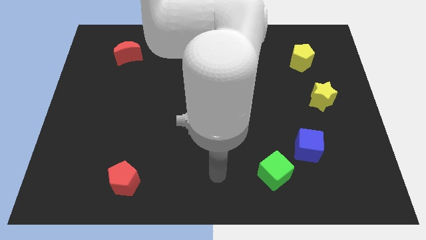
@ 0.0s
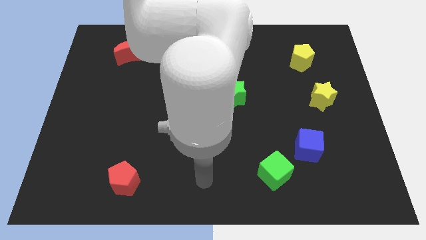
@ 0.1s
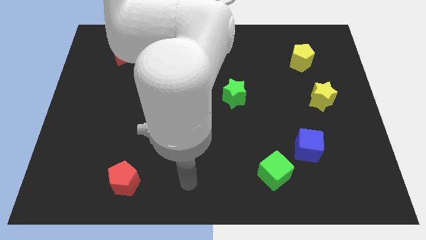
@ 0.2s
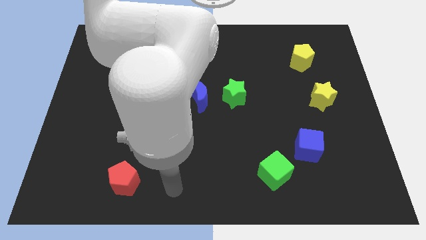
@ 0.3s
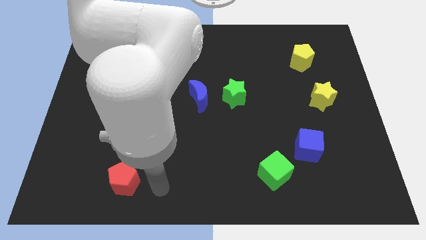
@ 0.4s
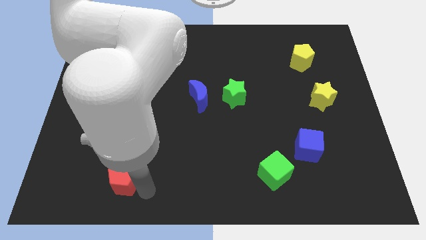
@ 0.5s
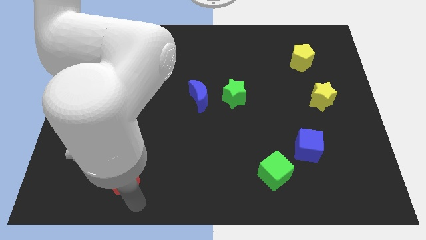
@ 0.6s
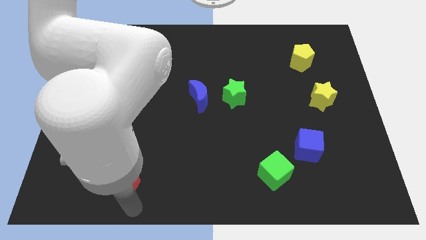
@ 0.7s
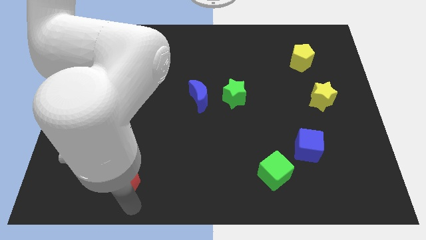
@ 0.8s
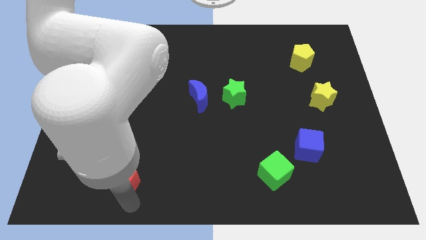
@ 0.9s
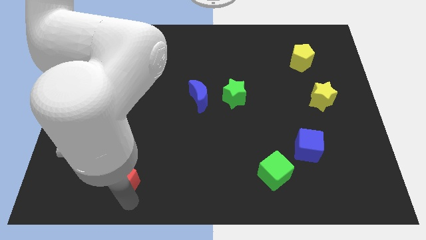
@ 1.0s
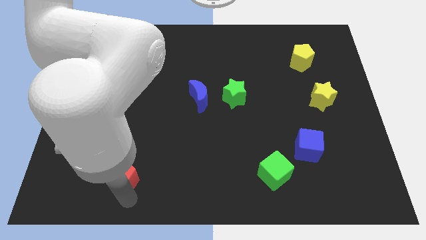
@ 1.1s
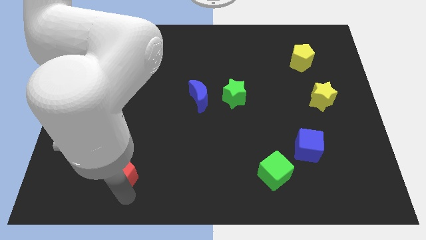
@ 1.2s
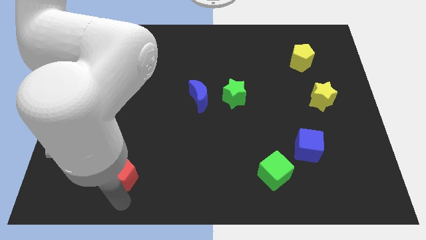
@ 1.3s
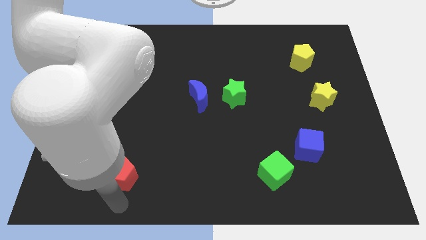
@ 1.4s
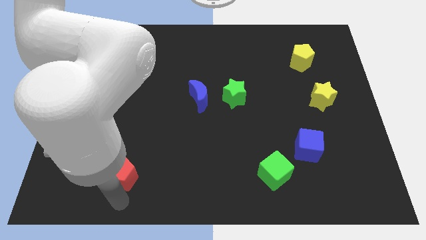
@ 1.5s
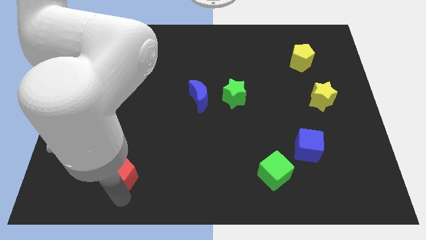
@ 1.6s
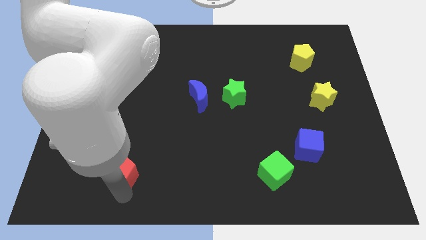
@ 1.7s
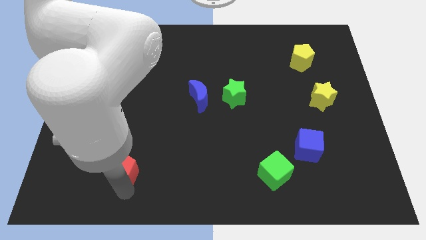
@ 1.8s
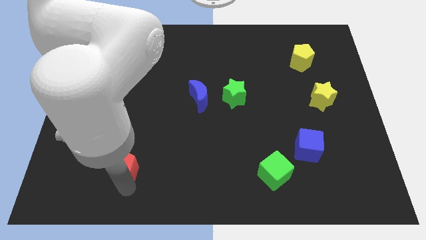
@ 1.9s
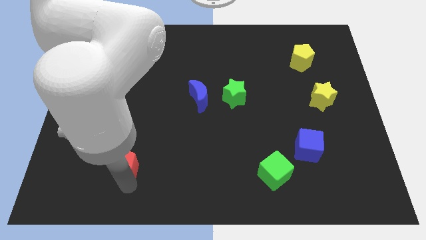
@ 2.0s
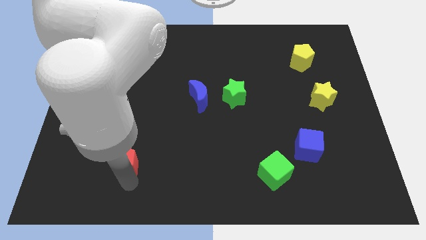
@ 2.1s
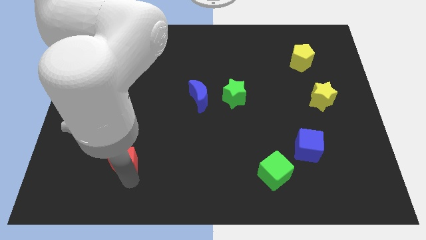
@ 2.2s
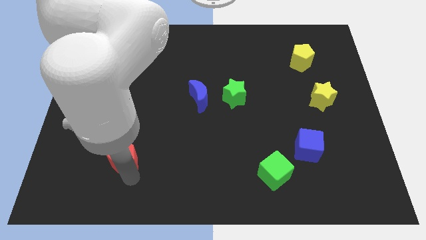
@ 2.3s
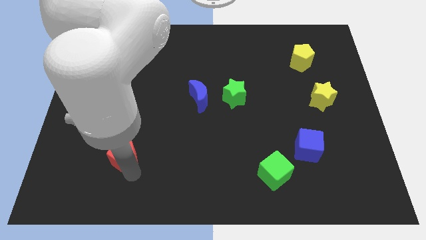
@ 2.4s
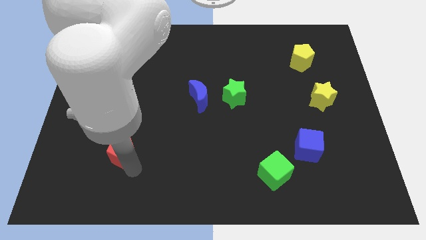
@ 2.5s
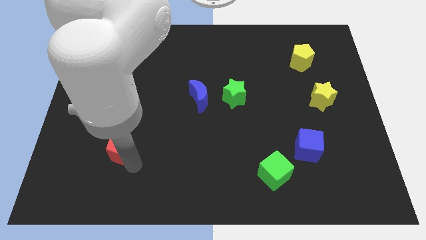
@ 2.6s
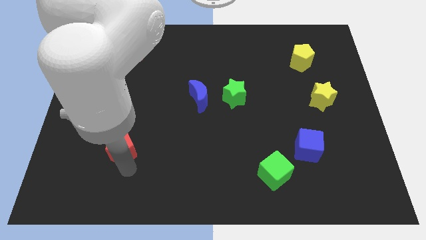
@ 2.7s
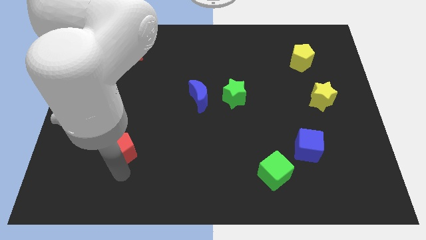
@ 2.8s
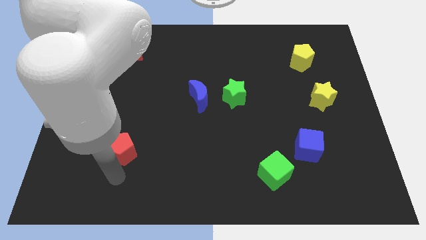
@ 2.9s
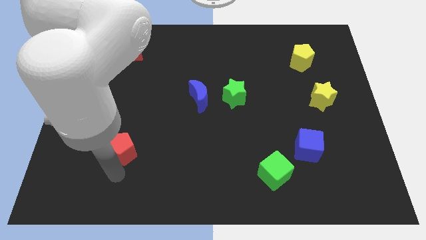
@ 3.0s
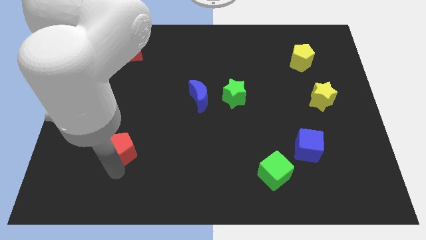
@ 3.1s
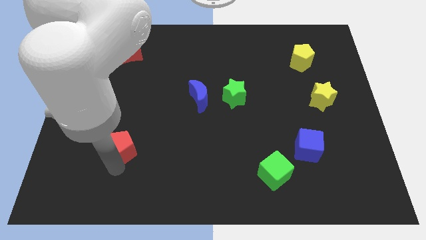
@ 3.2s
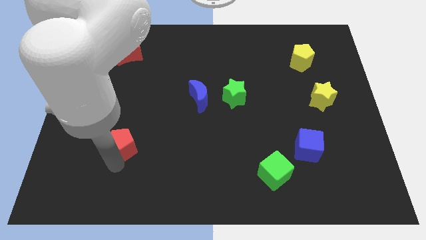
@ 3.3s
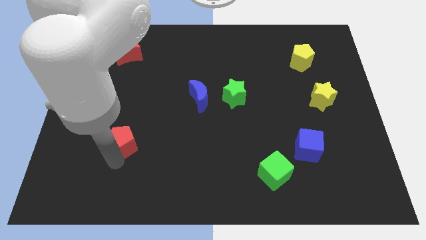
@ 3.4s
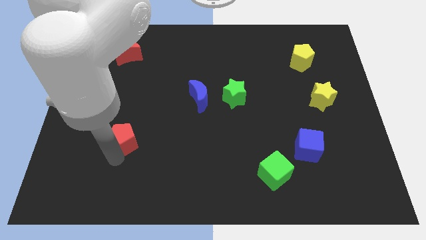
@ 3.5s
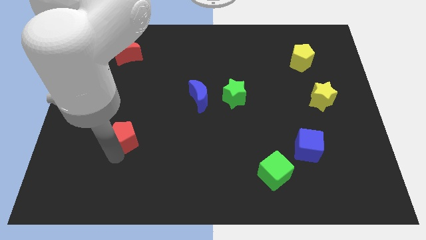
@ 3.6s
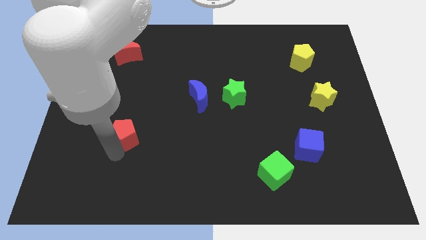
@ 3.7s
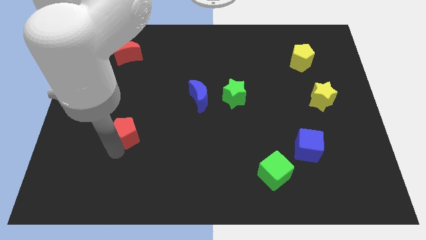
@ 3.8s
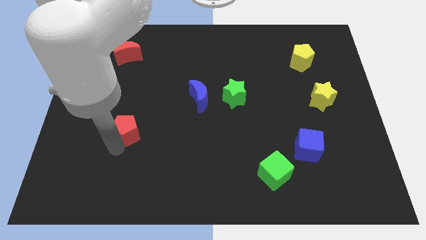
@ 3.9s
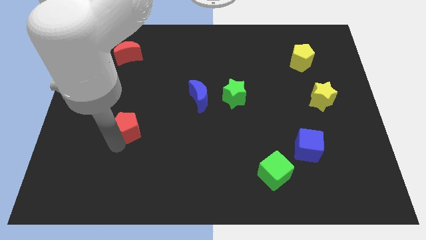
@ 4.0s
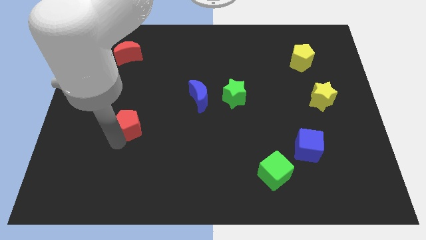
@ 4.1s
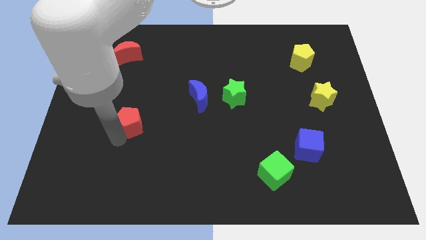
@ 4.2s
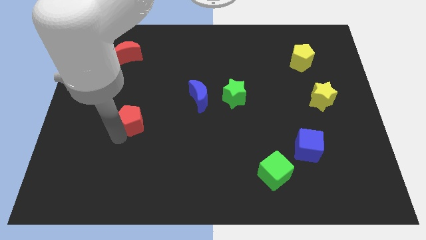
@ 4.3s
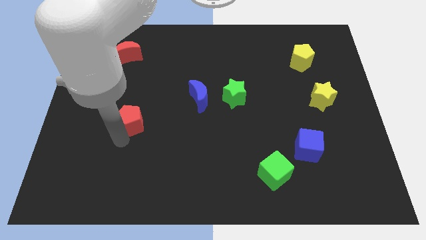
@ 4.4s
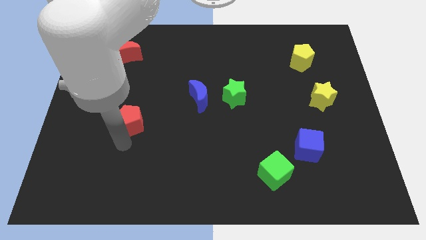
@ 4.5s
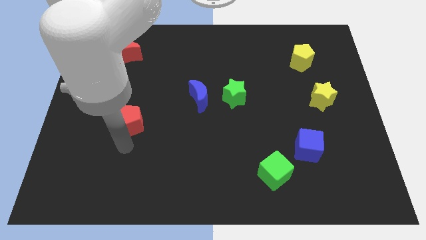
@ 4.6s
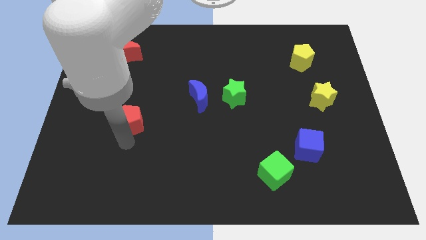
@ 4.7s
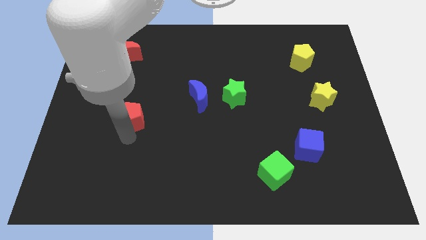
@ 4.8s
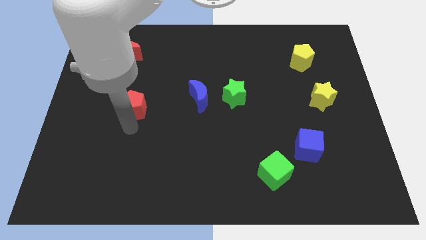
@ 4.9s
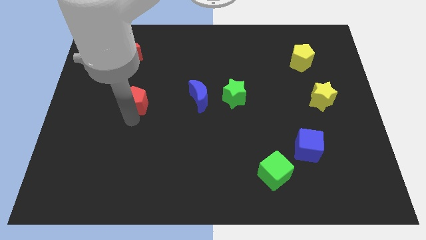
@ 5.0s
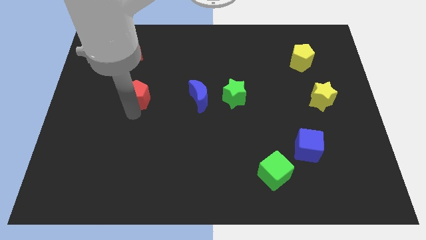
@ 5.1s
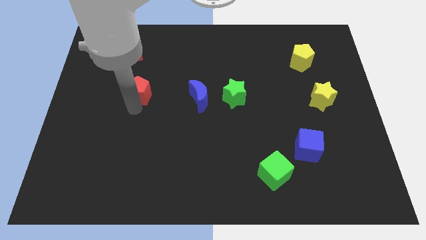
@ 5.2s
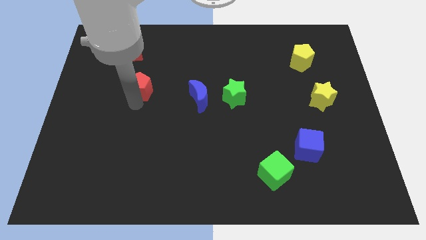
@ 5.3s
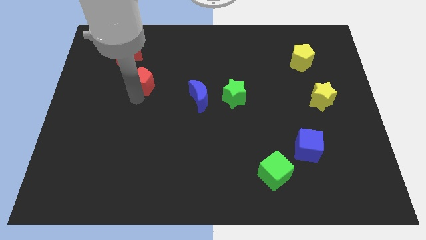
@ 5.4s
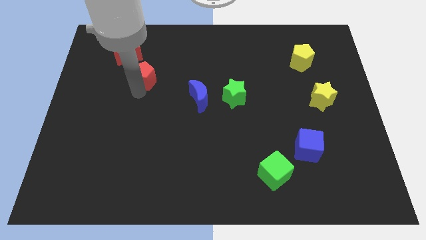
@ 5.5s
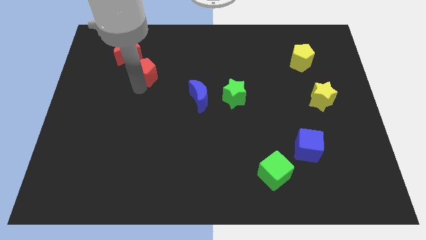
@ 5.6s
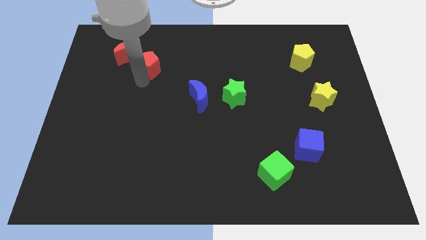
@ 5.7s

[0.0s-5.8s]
slide the red pentagon to the right side of the red moon

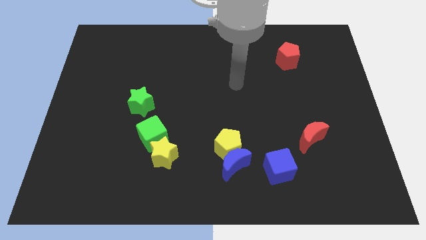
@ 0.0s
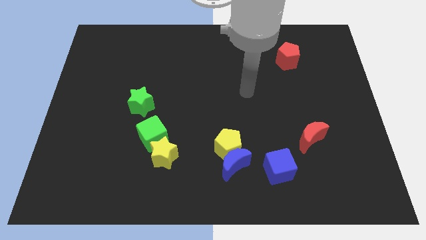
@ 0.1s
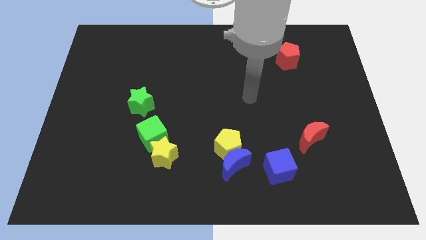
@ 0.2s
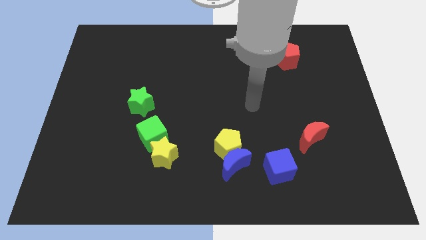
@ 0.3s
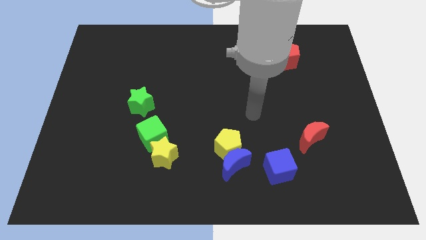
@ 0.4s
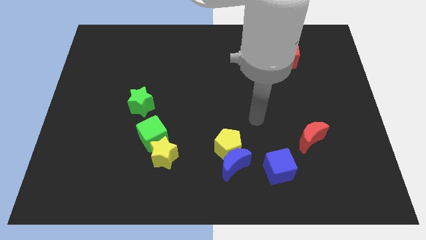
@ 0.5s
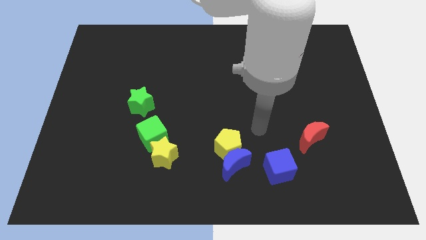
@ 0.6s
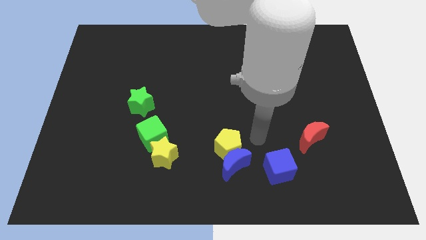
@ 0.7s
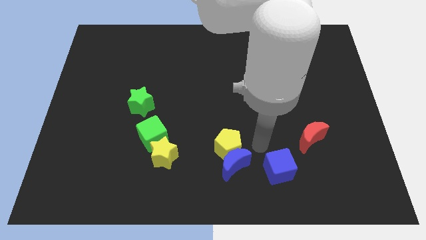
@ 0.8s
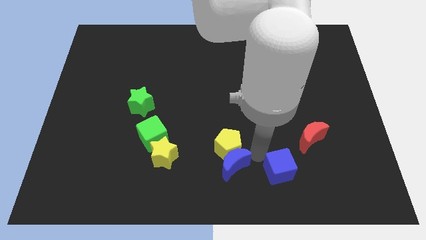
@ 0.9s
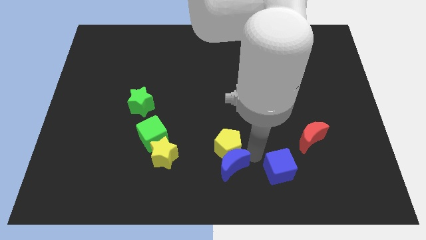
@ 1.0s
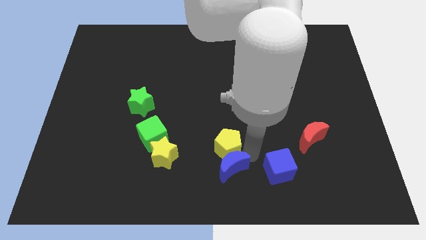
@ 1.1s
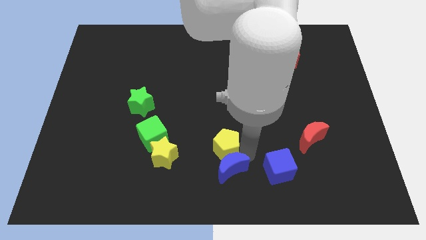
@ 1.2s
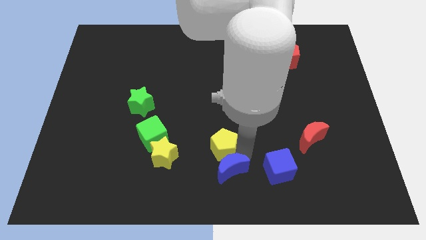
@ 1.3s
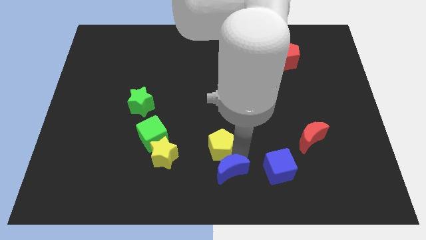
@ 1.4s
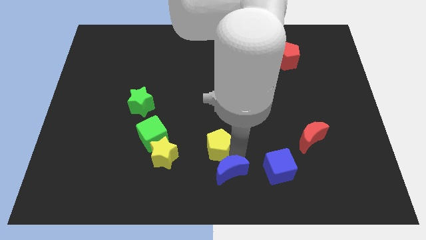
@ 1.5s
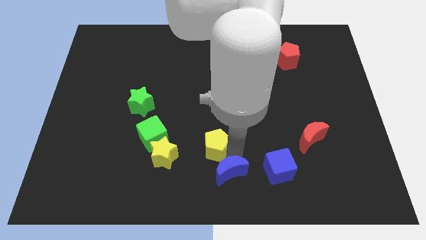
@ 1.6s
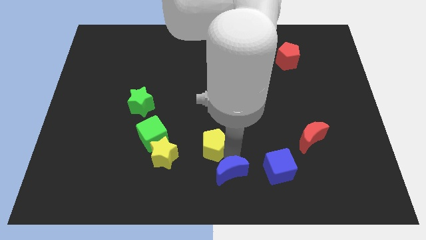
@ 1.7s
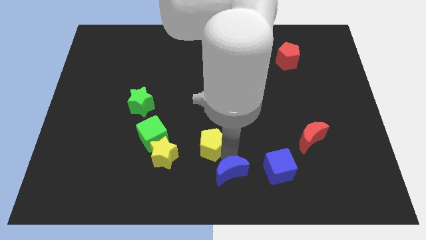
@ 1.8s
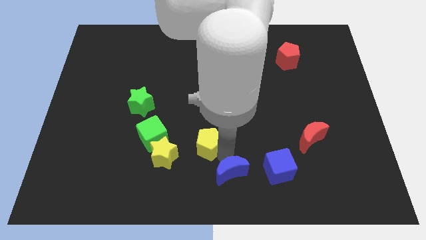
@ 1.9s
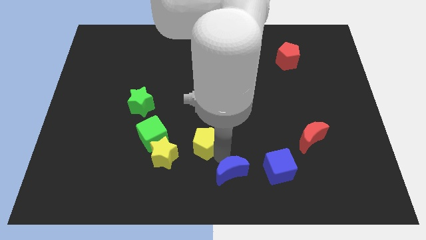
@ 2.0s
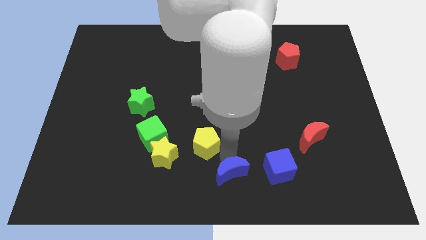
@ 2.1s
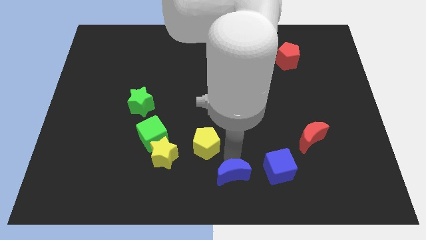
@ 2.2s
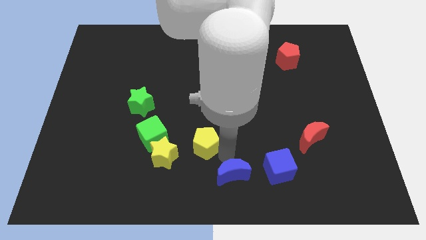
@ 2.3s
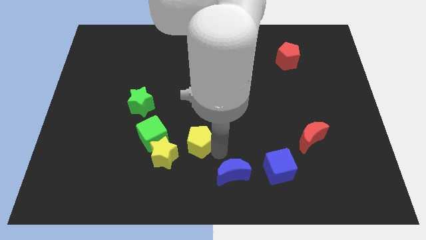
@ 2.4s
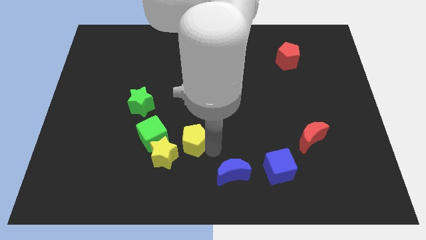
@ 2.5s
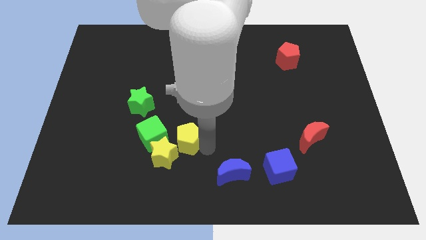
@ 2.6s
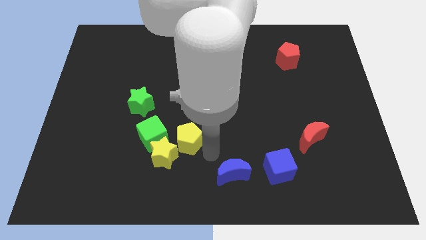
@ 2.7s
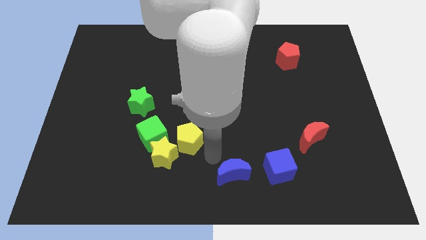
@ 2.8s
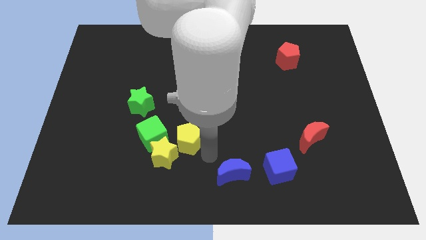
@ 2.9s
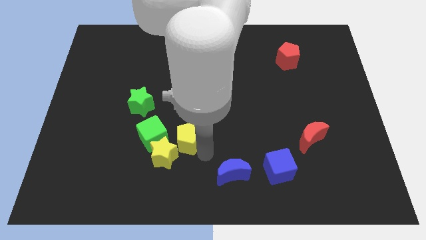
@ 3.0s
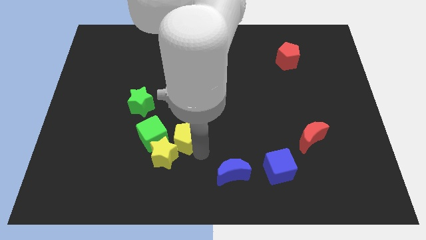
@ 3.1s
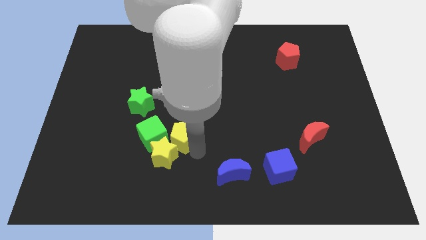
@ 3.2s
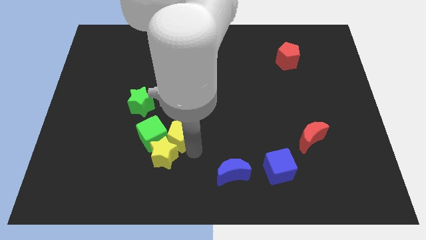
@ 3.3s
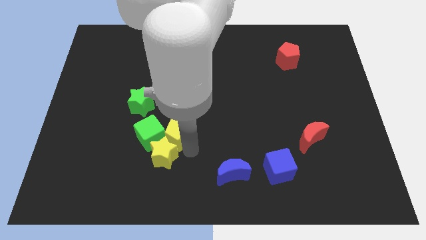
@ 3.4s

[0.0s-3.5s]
put the yellow pentagon diagonally down and to the right of the green star
